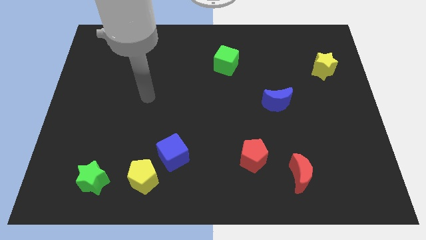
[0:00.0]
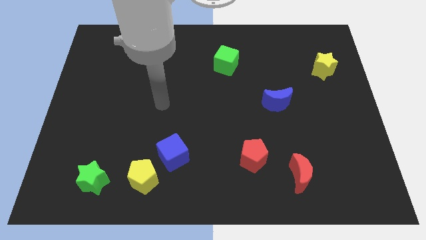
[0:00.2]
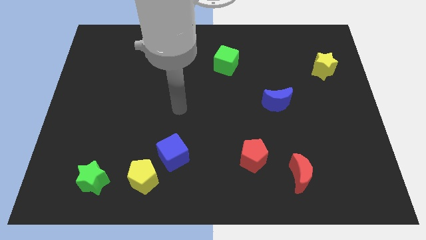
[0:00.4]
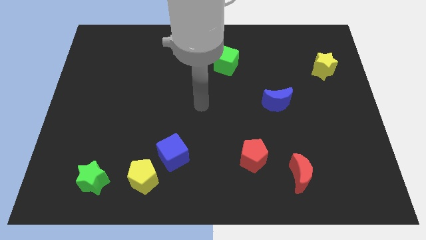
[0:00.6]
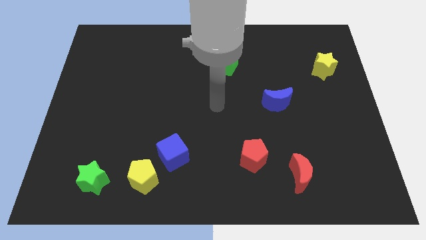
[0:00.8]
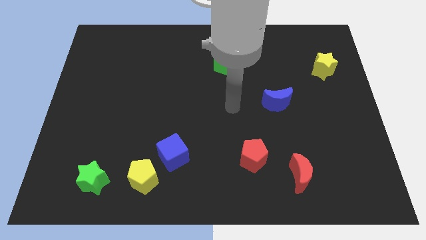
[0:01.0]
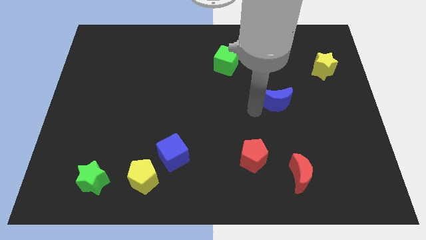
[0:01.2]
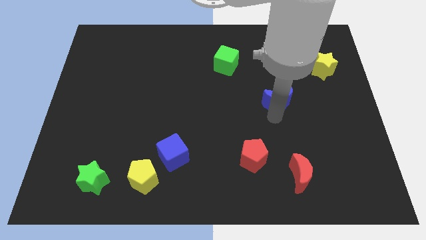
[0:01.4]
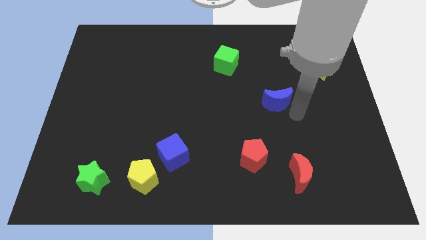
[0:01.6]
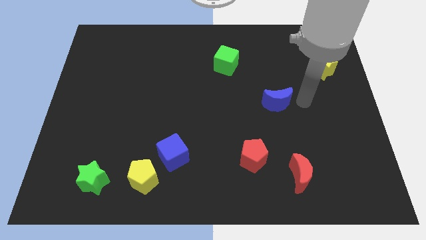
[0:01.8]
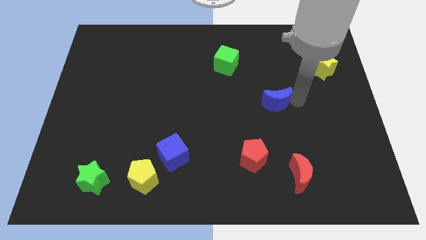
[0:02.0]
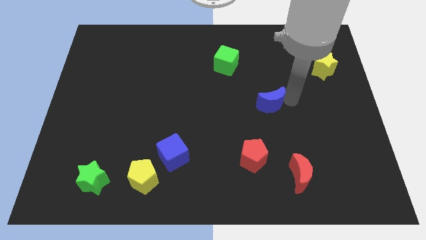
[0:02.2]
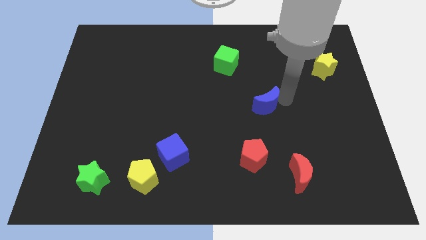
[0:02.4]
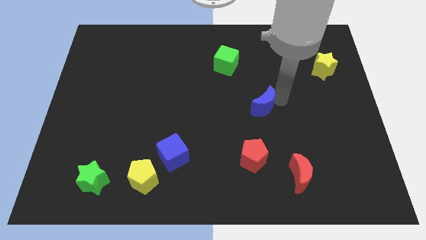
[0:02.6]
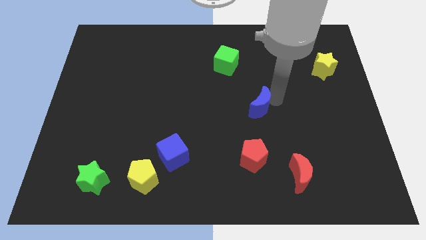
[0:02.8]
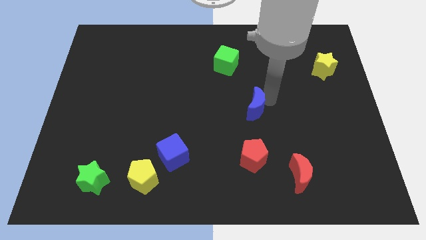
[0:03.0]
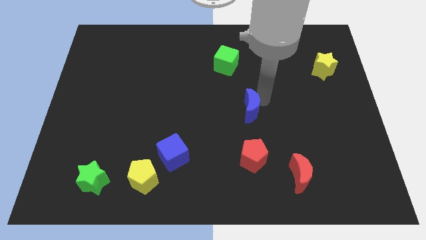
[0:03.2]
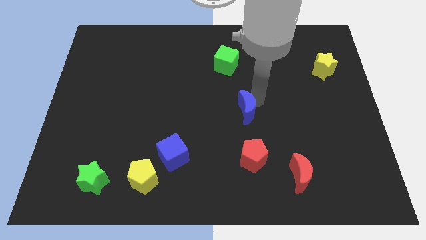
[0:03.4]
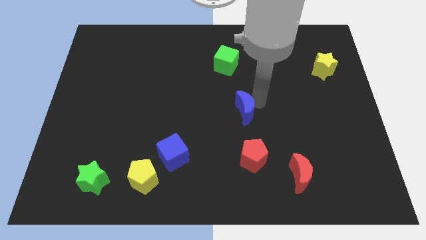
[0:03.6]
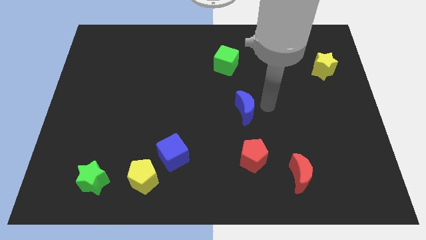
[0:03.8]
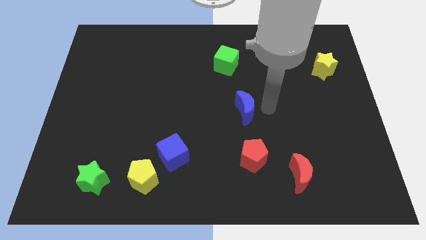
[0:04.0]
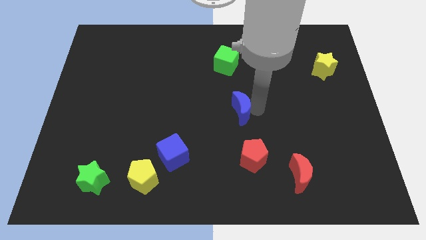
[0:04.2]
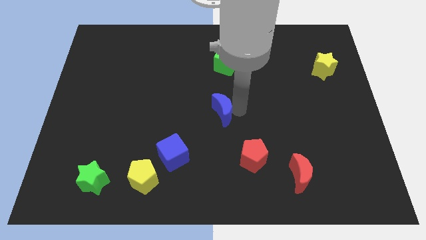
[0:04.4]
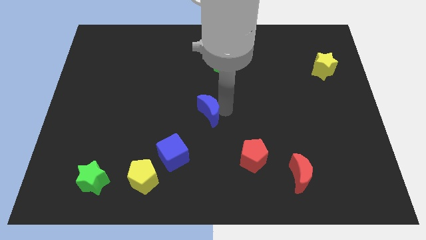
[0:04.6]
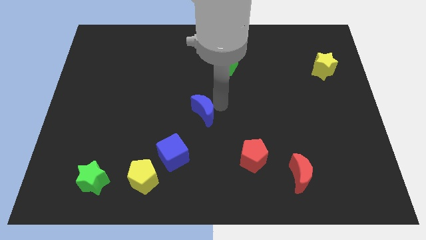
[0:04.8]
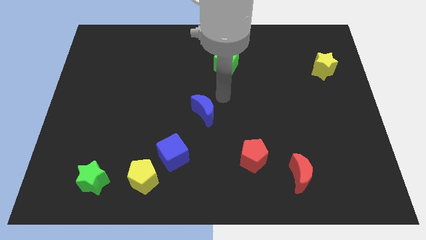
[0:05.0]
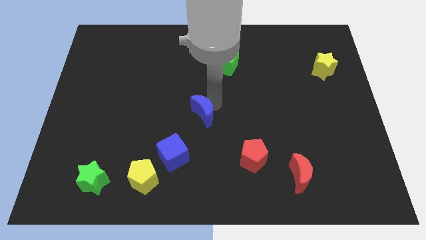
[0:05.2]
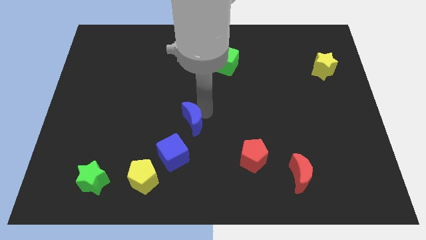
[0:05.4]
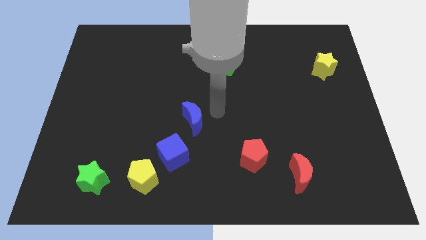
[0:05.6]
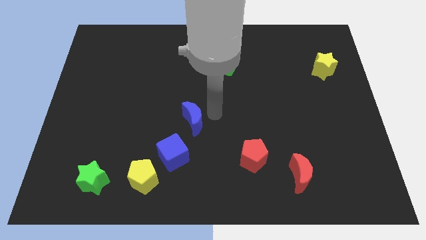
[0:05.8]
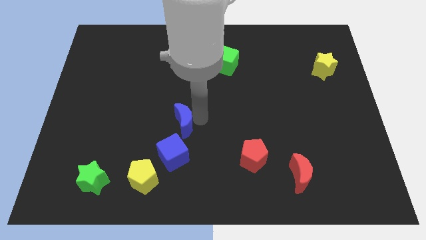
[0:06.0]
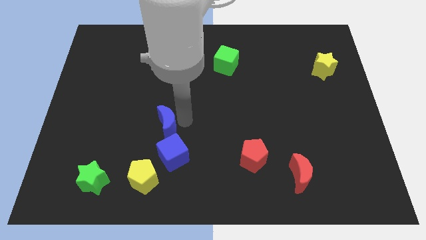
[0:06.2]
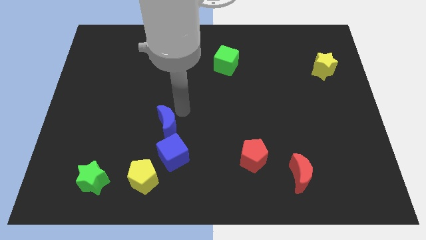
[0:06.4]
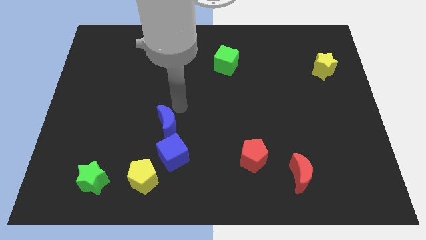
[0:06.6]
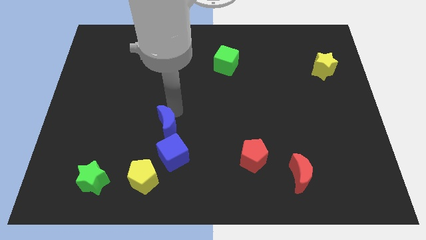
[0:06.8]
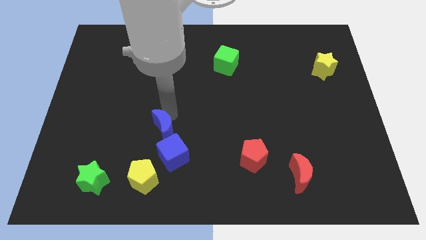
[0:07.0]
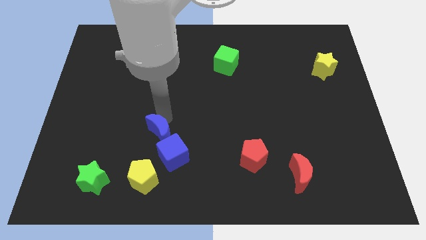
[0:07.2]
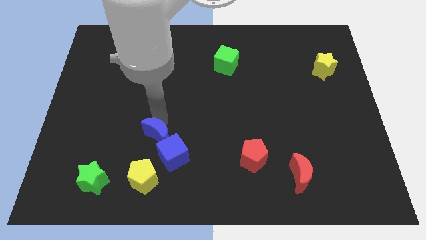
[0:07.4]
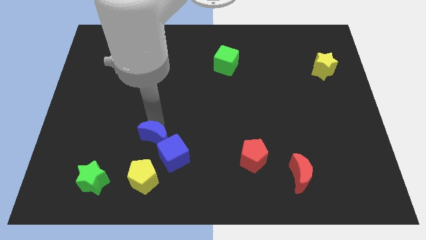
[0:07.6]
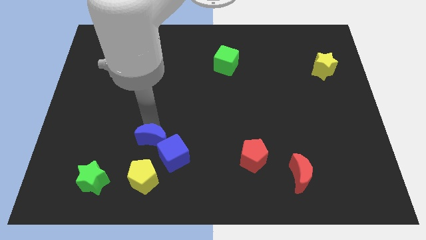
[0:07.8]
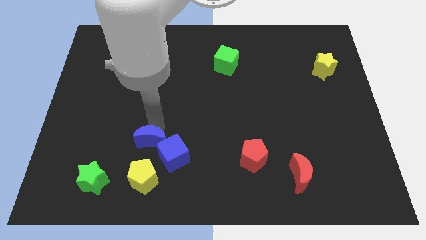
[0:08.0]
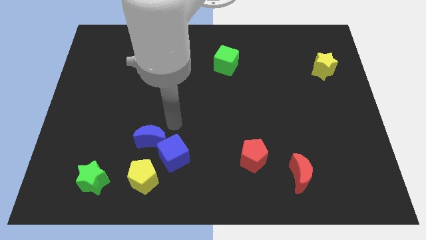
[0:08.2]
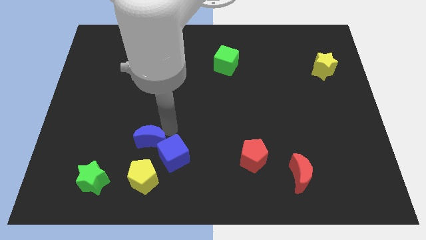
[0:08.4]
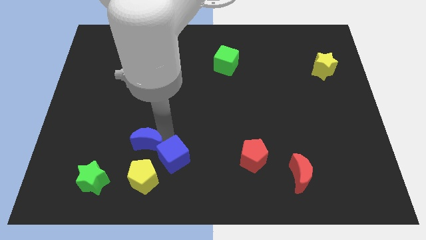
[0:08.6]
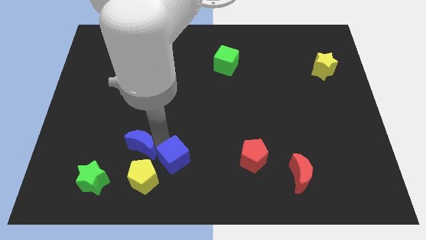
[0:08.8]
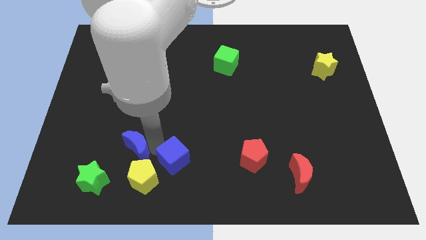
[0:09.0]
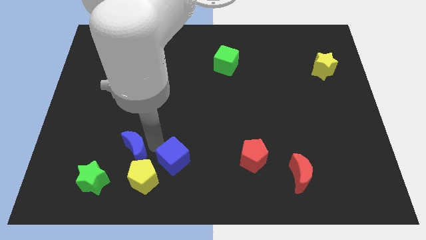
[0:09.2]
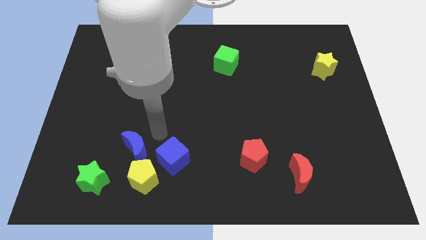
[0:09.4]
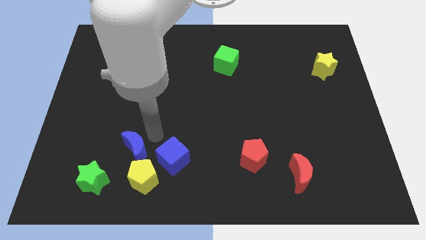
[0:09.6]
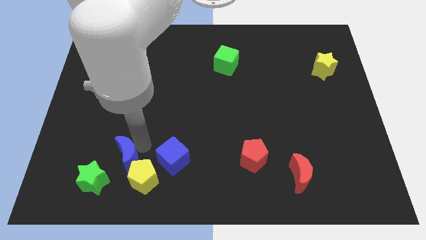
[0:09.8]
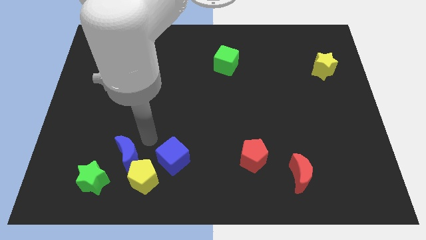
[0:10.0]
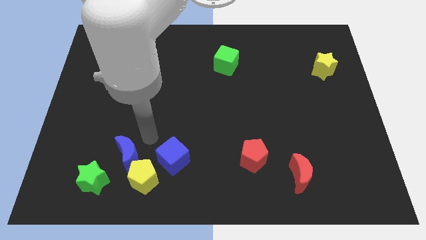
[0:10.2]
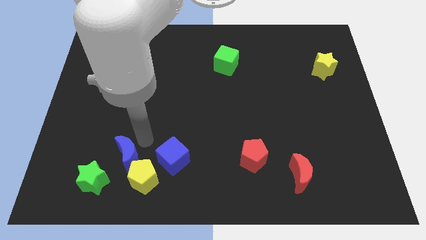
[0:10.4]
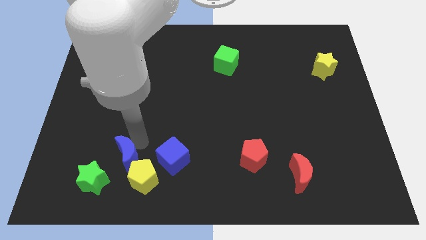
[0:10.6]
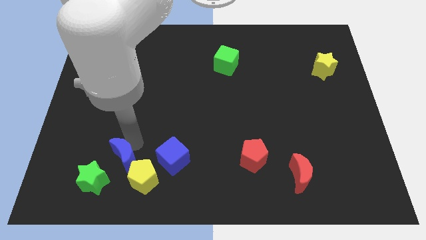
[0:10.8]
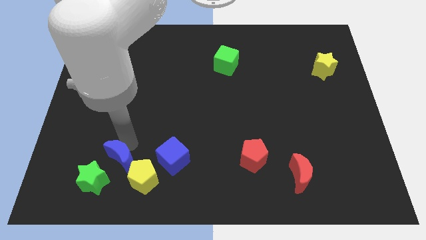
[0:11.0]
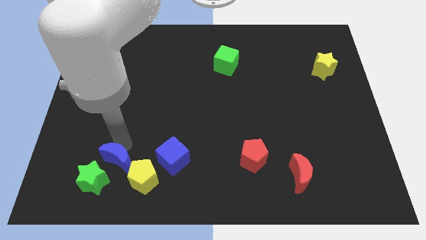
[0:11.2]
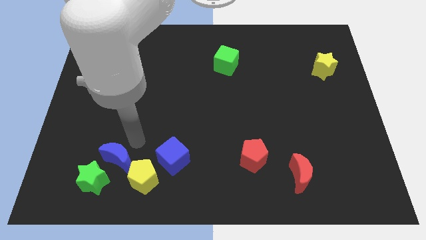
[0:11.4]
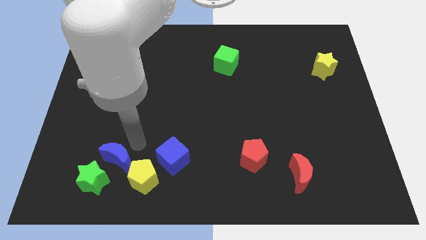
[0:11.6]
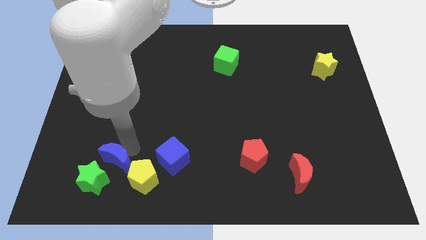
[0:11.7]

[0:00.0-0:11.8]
push the blue moon close to the green star
